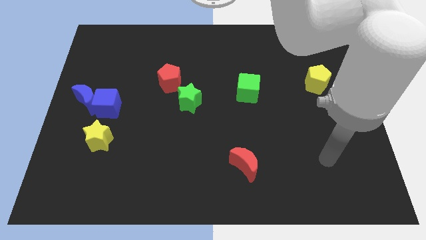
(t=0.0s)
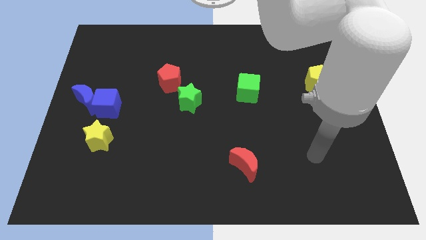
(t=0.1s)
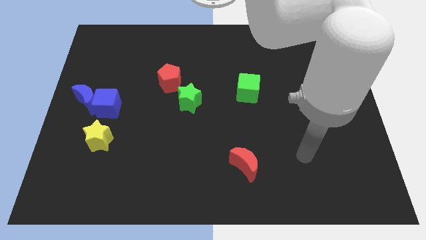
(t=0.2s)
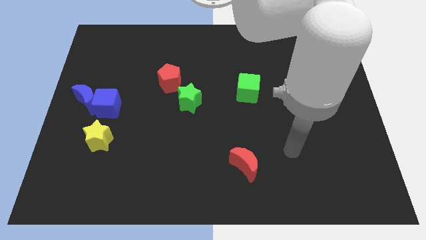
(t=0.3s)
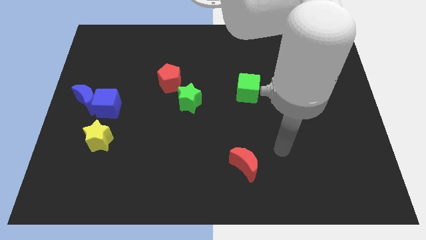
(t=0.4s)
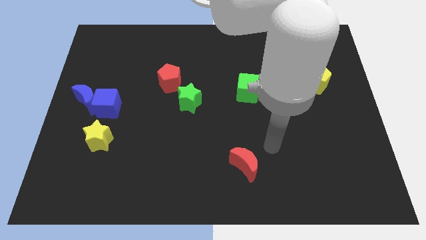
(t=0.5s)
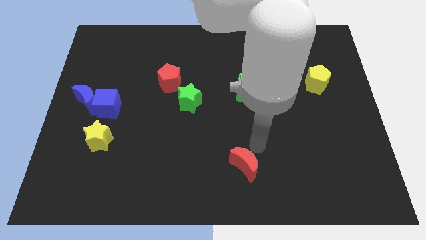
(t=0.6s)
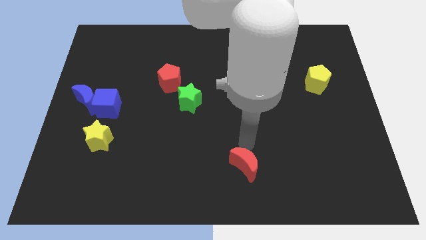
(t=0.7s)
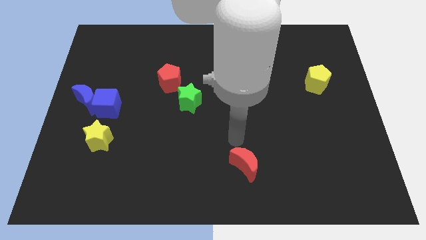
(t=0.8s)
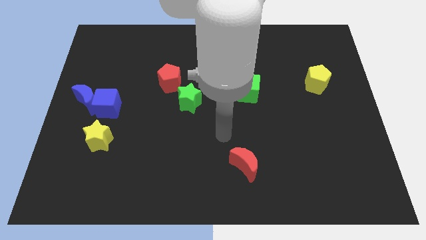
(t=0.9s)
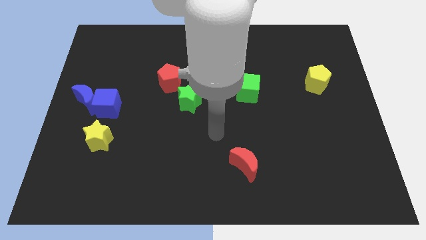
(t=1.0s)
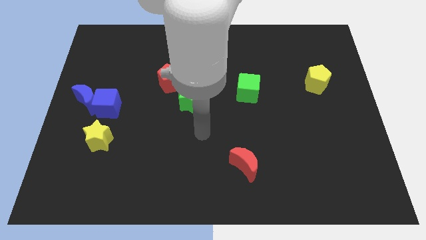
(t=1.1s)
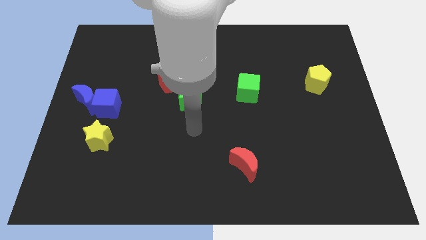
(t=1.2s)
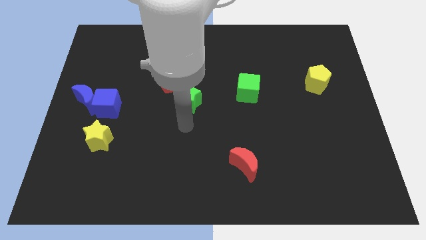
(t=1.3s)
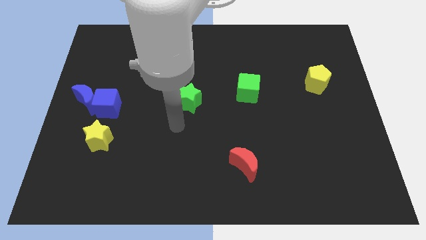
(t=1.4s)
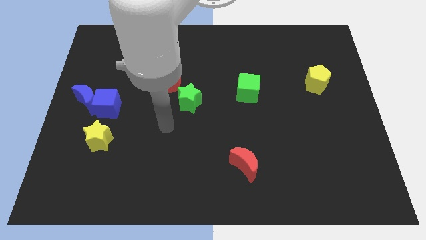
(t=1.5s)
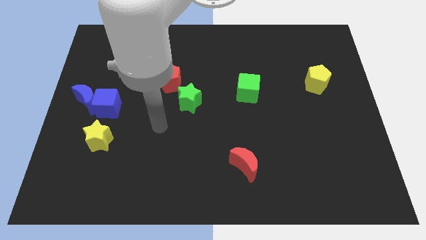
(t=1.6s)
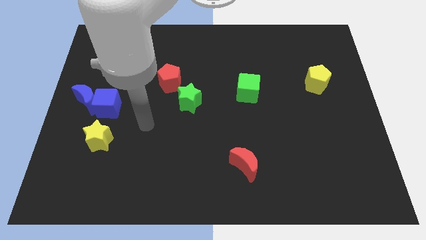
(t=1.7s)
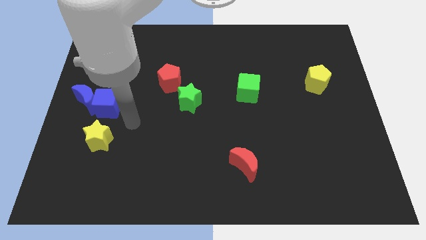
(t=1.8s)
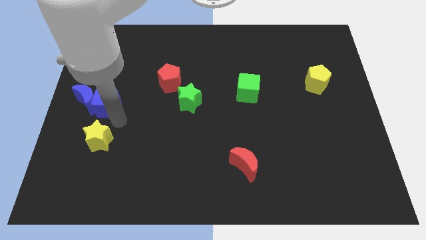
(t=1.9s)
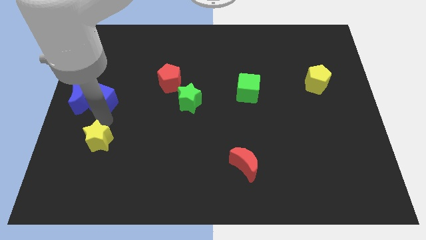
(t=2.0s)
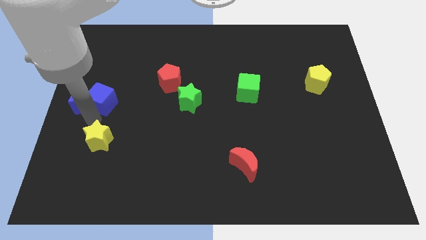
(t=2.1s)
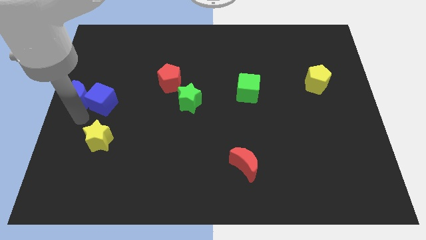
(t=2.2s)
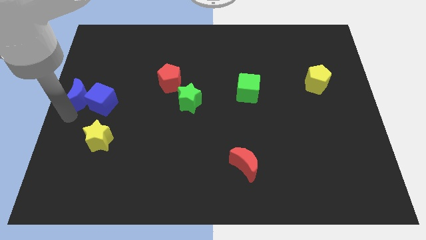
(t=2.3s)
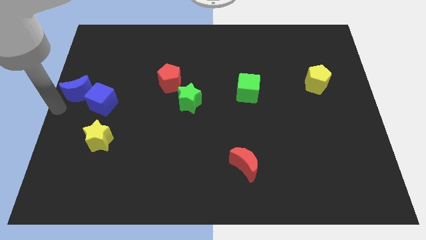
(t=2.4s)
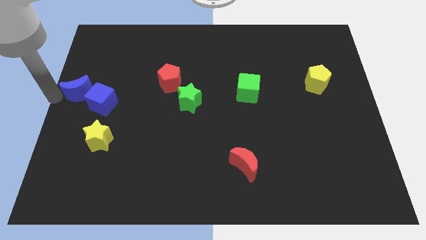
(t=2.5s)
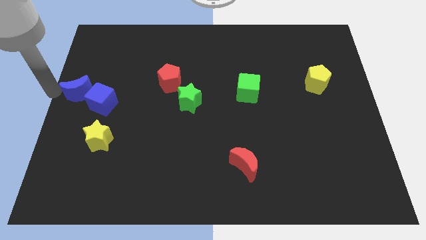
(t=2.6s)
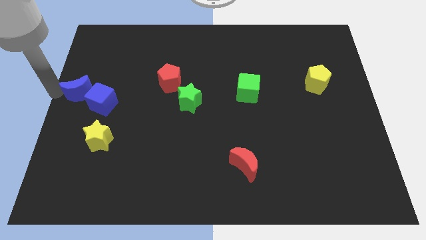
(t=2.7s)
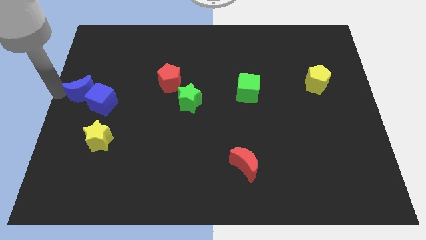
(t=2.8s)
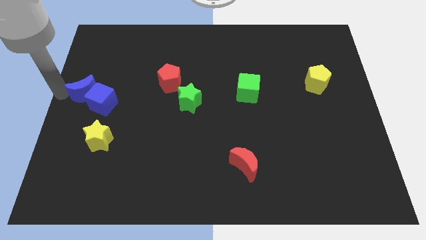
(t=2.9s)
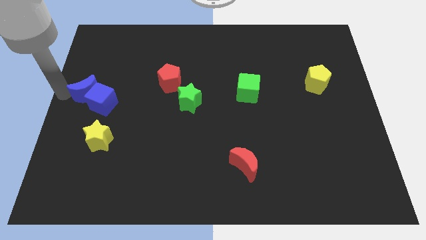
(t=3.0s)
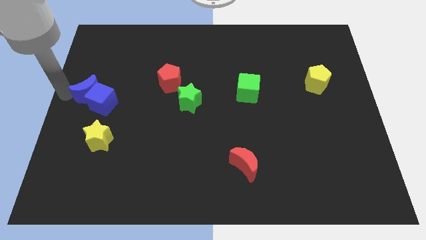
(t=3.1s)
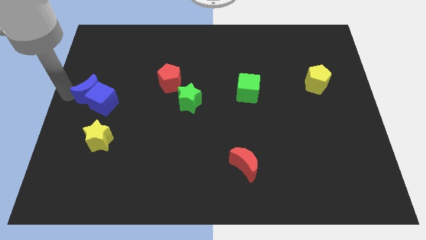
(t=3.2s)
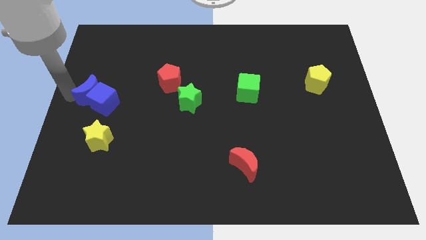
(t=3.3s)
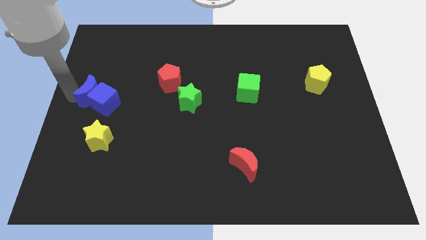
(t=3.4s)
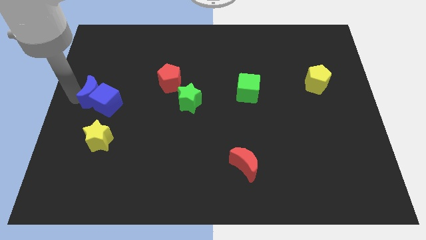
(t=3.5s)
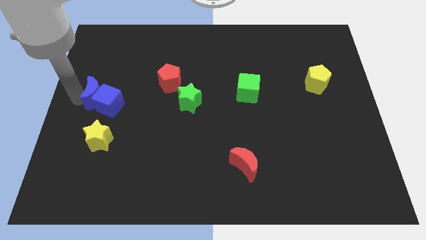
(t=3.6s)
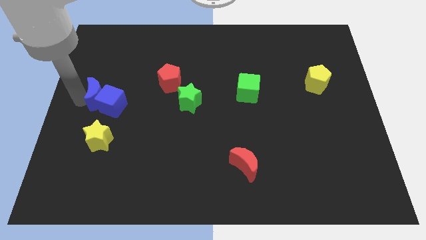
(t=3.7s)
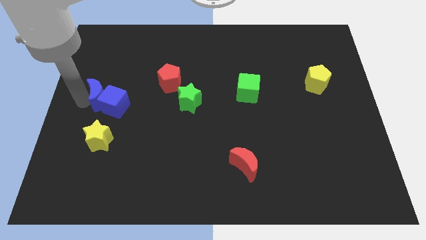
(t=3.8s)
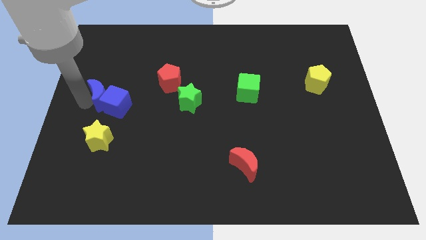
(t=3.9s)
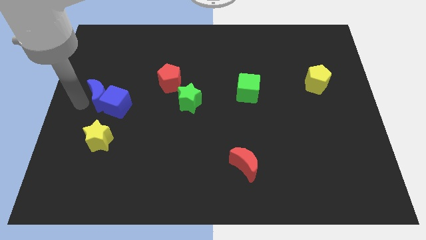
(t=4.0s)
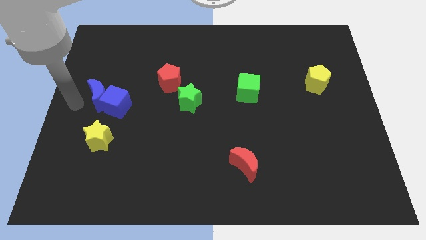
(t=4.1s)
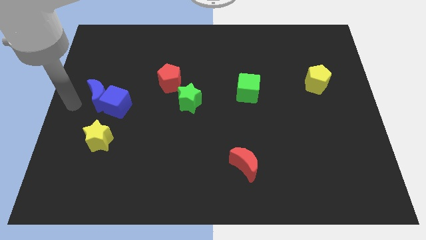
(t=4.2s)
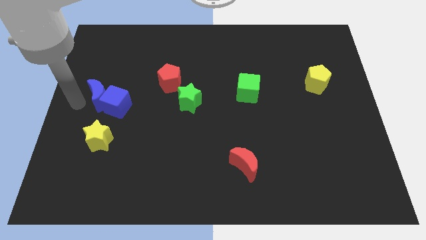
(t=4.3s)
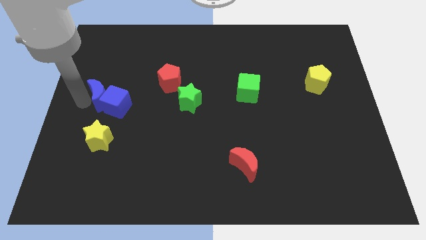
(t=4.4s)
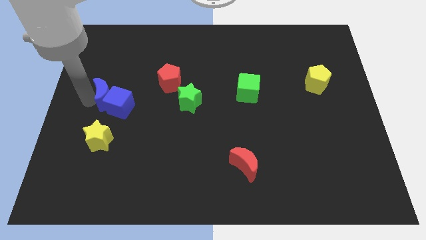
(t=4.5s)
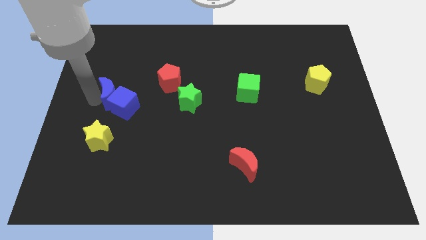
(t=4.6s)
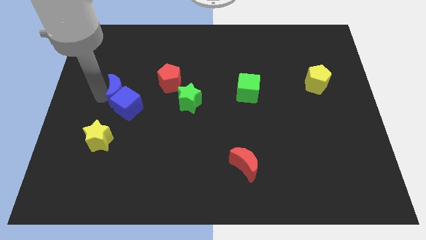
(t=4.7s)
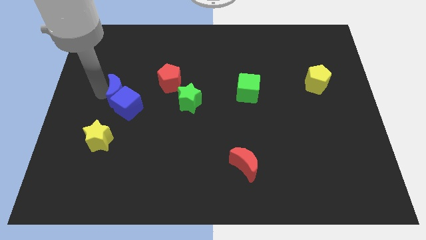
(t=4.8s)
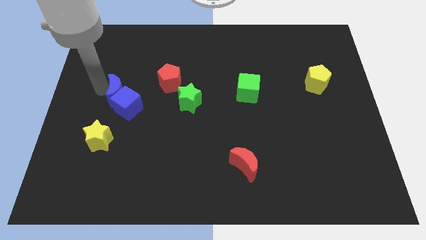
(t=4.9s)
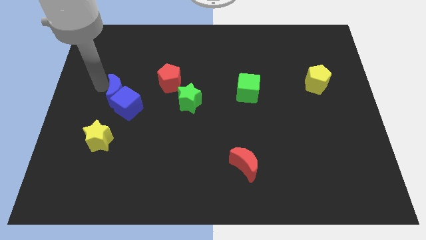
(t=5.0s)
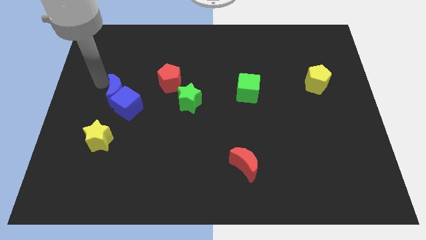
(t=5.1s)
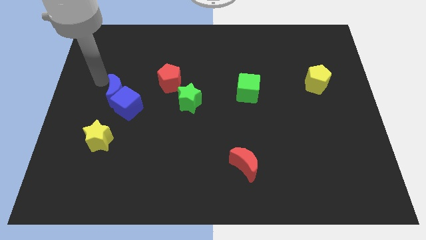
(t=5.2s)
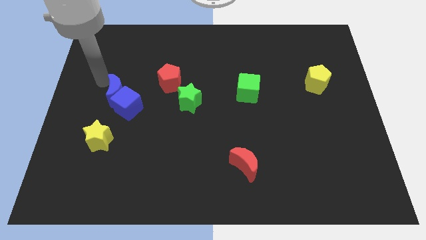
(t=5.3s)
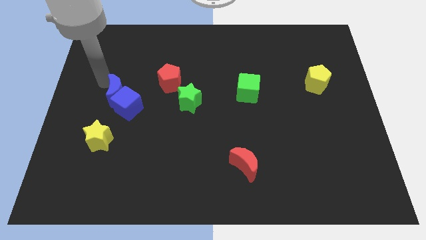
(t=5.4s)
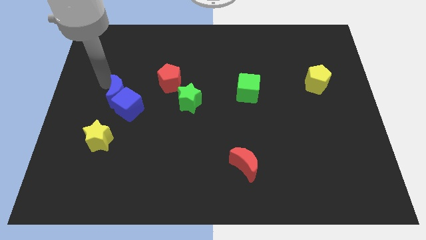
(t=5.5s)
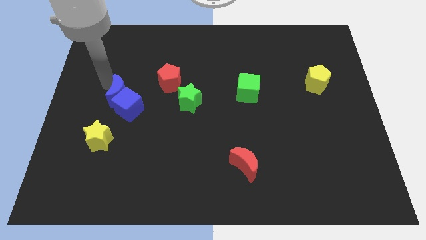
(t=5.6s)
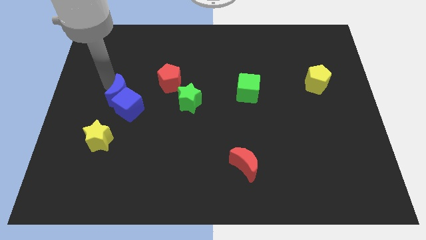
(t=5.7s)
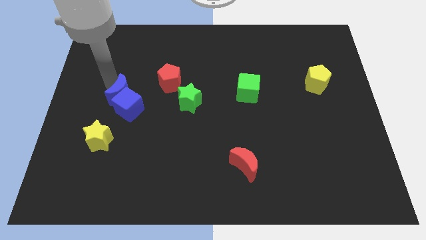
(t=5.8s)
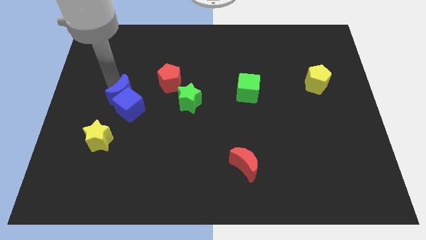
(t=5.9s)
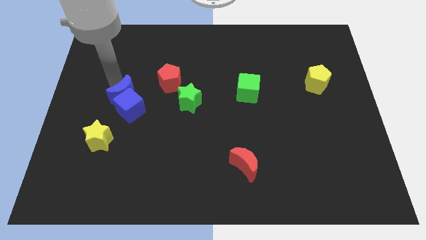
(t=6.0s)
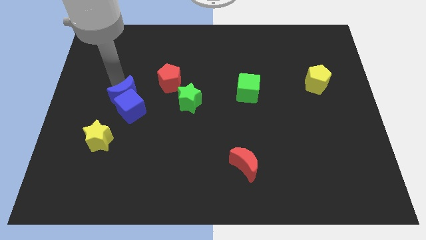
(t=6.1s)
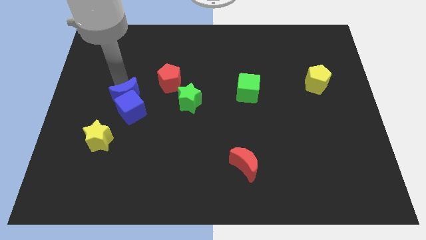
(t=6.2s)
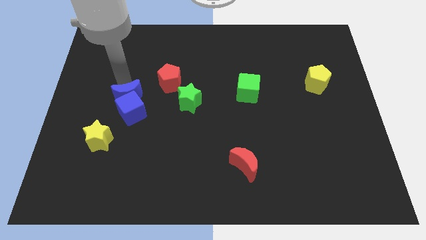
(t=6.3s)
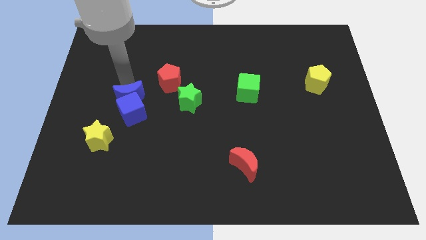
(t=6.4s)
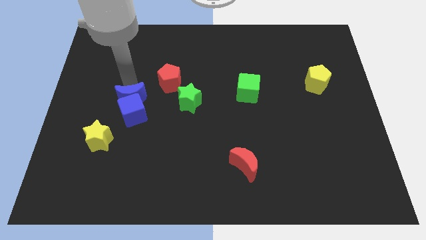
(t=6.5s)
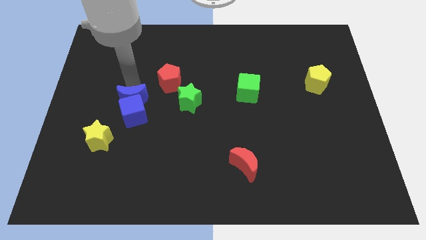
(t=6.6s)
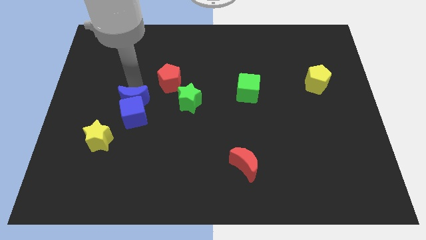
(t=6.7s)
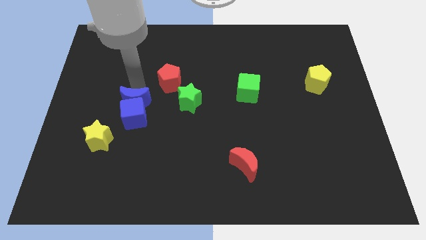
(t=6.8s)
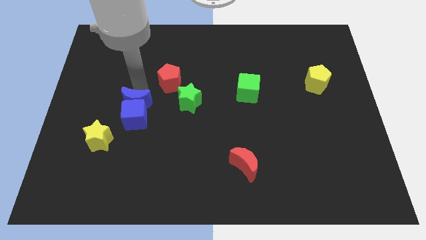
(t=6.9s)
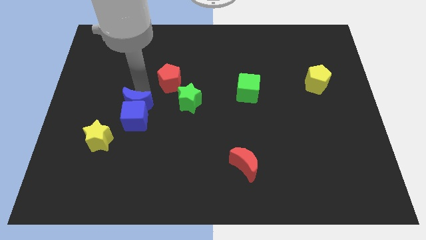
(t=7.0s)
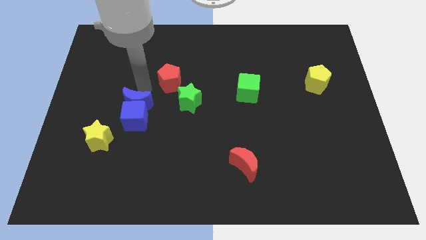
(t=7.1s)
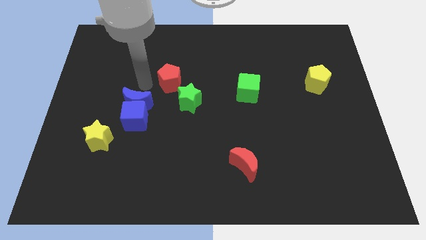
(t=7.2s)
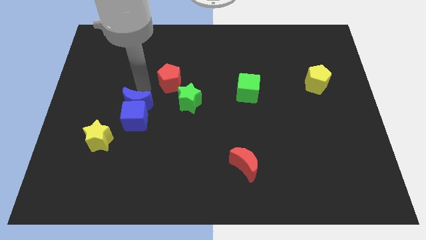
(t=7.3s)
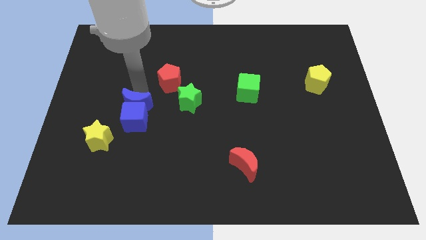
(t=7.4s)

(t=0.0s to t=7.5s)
slightly push the blue moon down and to the right diagonally

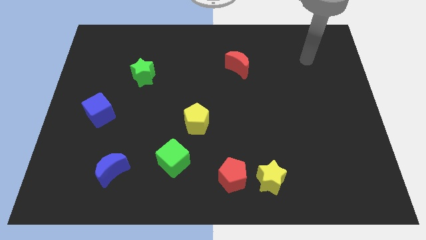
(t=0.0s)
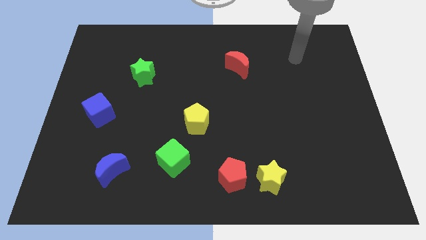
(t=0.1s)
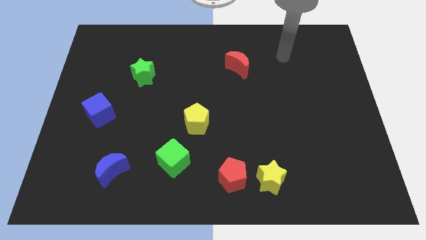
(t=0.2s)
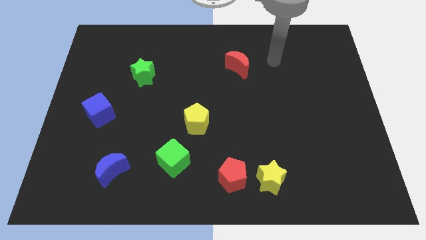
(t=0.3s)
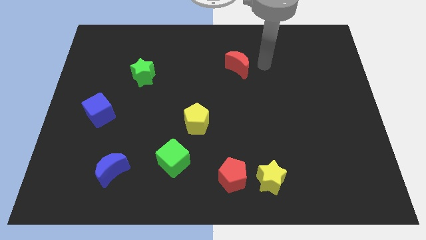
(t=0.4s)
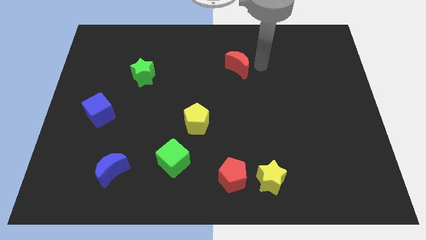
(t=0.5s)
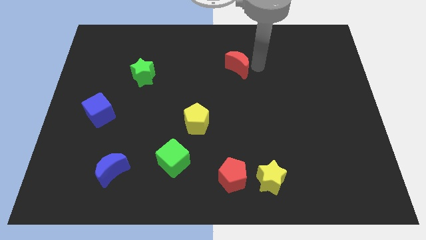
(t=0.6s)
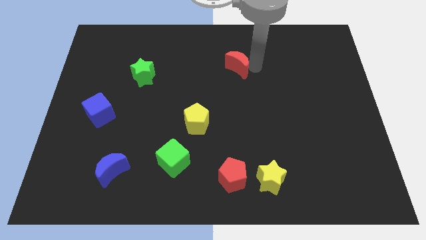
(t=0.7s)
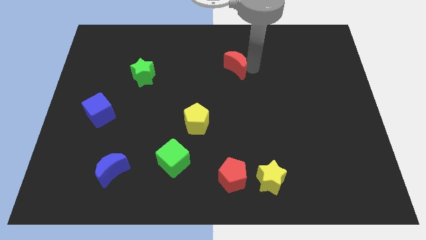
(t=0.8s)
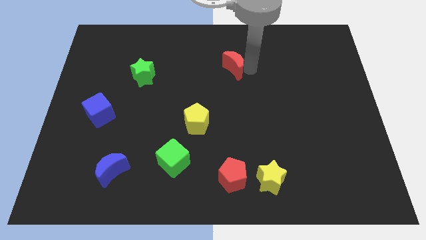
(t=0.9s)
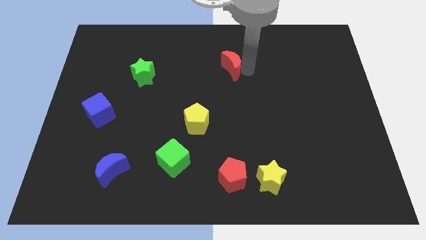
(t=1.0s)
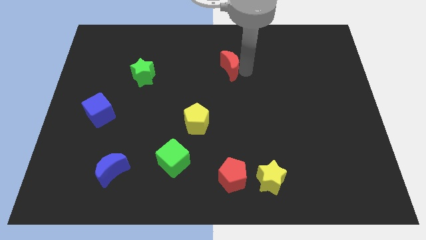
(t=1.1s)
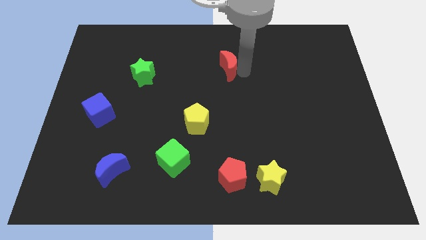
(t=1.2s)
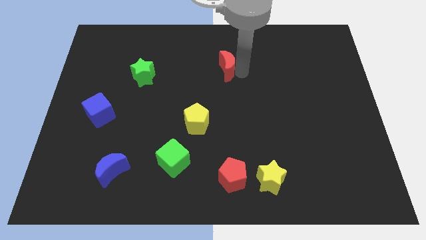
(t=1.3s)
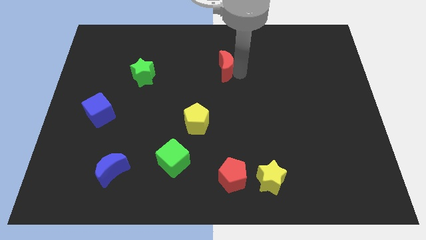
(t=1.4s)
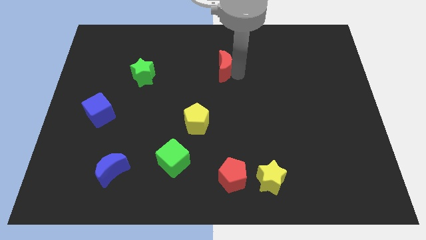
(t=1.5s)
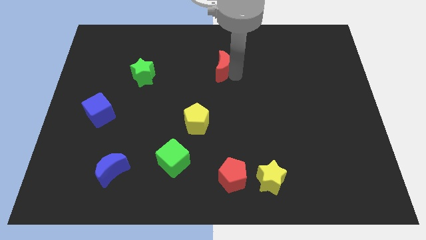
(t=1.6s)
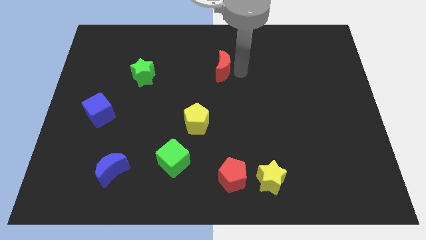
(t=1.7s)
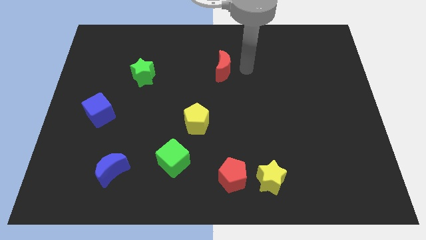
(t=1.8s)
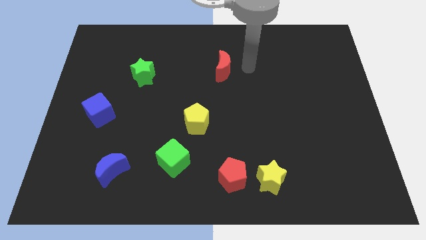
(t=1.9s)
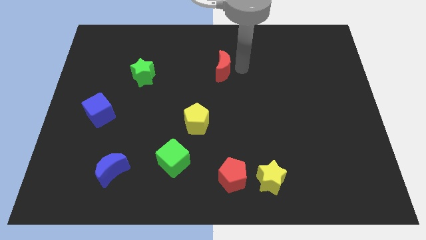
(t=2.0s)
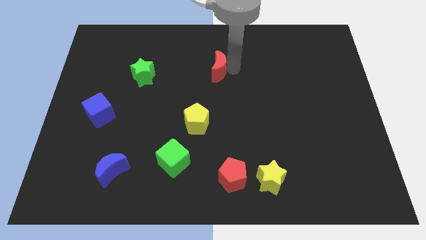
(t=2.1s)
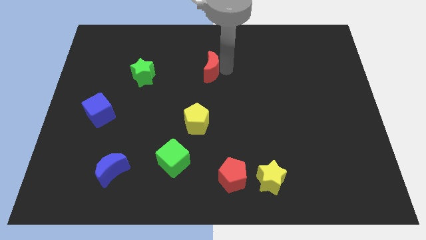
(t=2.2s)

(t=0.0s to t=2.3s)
move the red moon a bit left
